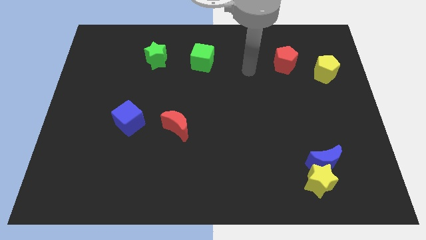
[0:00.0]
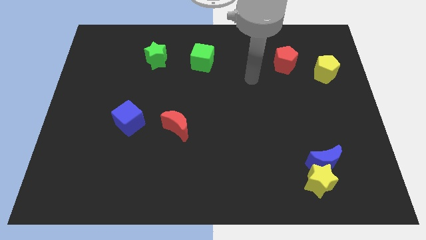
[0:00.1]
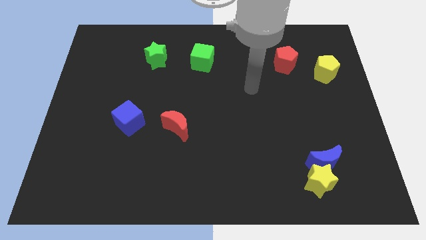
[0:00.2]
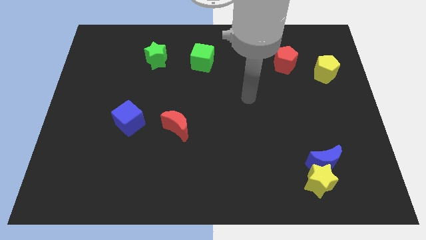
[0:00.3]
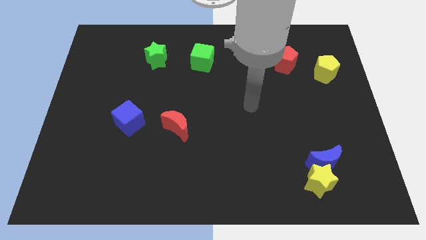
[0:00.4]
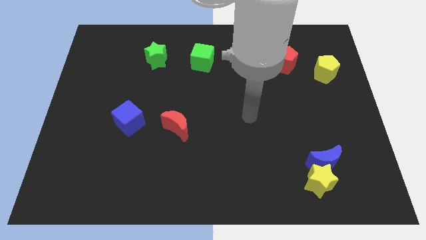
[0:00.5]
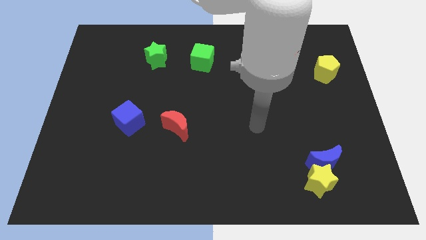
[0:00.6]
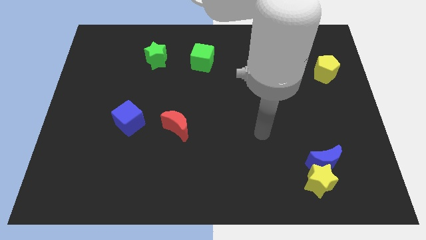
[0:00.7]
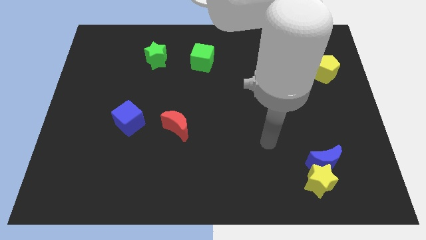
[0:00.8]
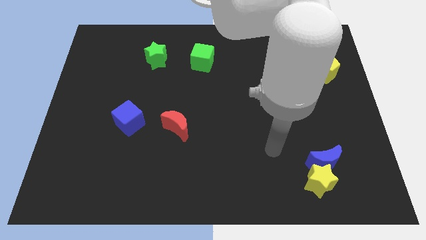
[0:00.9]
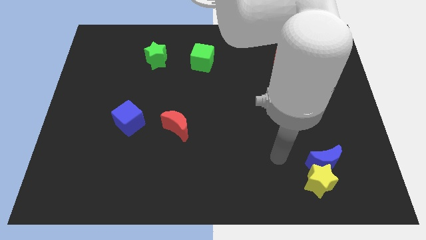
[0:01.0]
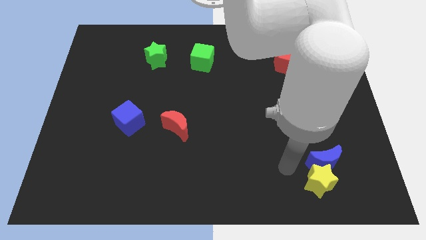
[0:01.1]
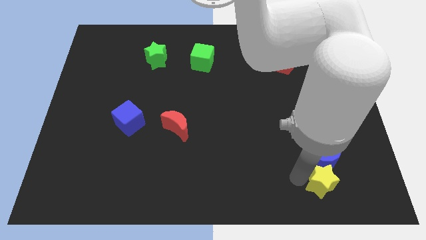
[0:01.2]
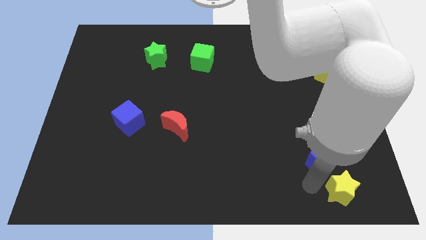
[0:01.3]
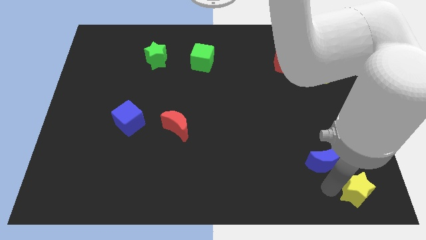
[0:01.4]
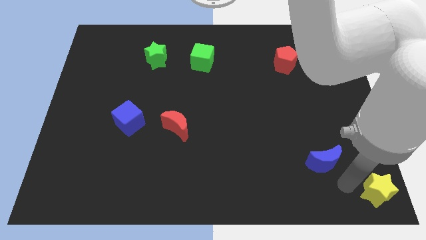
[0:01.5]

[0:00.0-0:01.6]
separate the blue moon from the yellow star

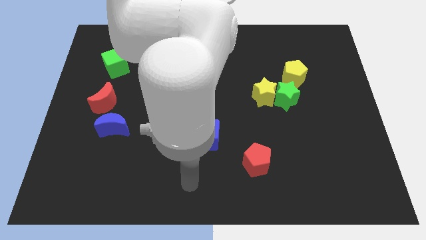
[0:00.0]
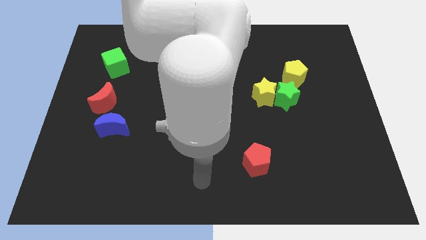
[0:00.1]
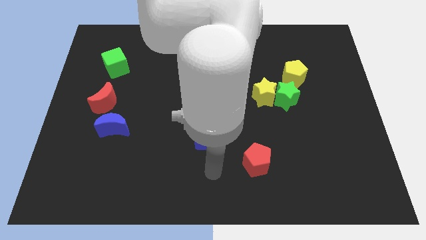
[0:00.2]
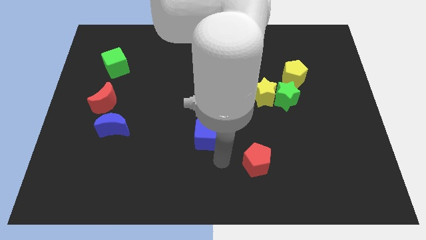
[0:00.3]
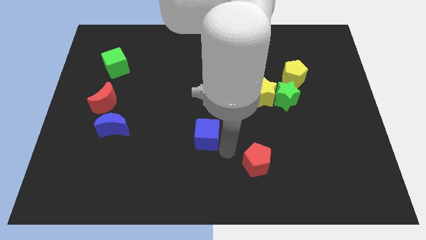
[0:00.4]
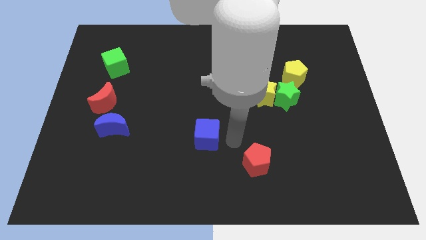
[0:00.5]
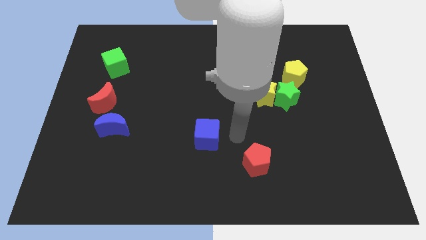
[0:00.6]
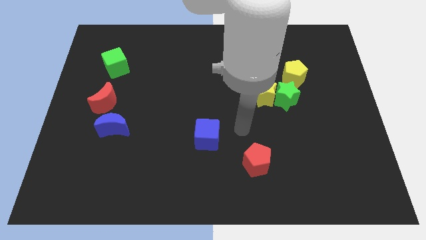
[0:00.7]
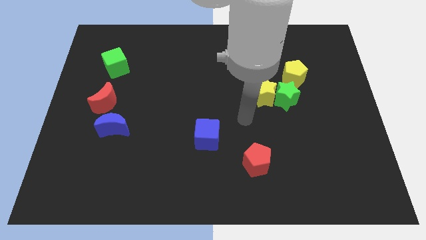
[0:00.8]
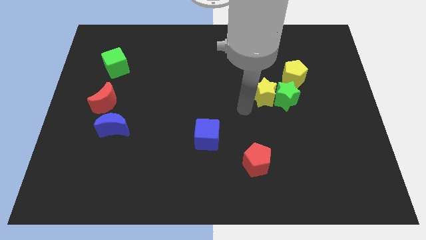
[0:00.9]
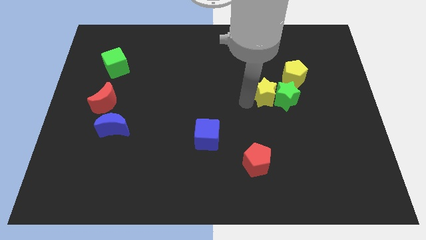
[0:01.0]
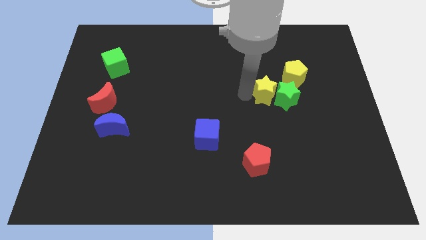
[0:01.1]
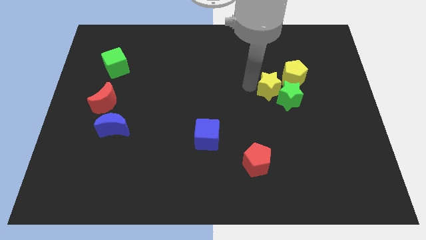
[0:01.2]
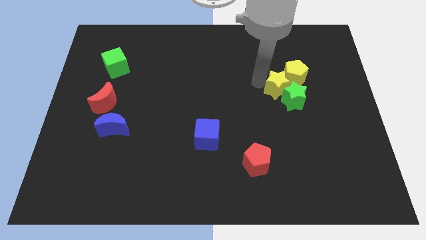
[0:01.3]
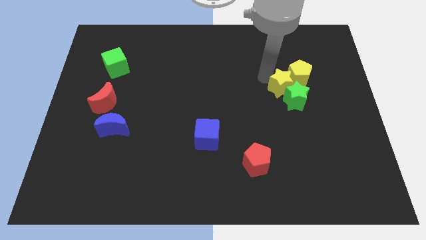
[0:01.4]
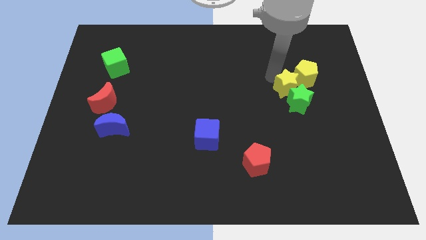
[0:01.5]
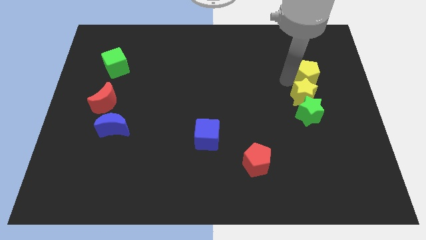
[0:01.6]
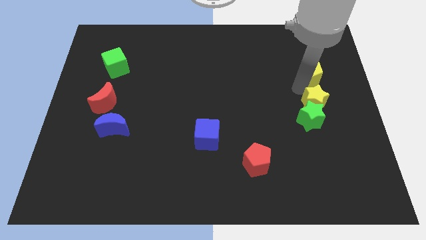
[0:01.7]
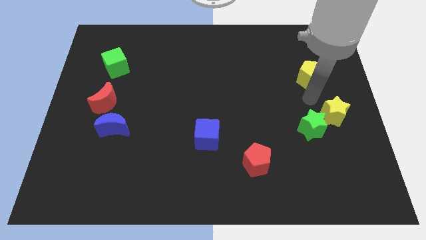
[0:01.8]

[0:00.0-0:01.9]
separate the green star from the yellow star and yellow pentagon

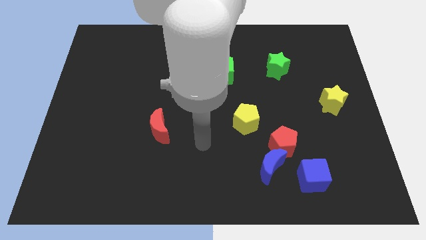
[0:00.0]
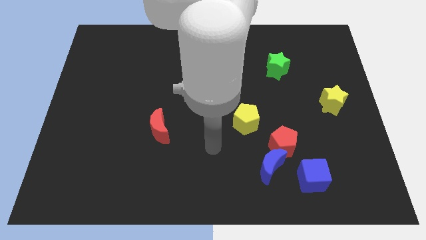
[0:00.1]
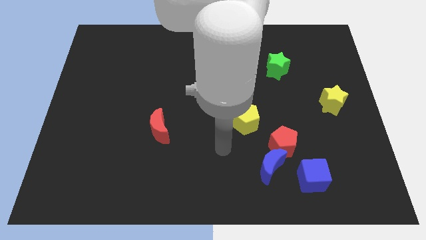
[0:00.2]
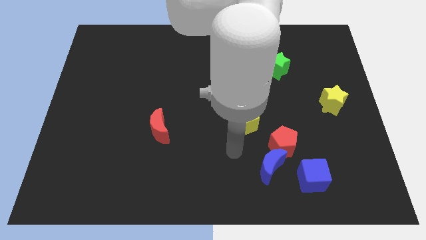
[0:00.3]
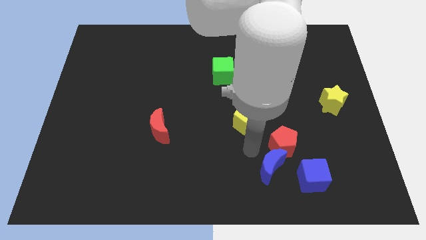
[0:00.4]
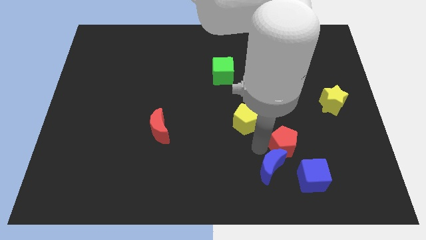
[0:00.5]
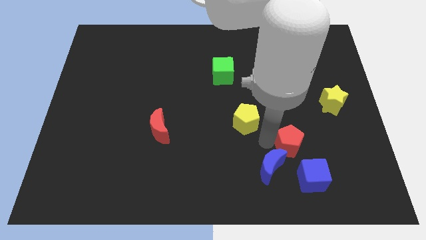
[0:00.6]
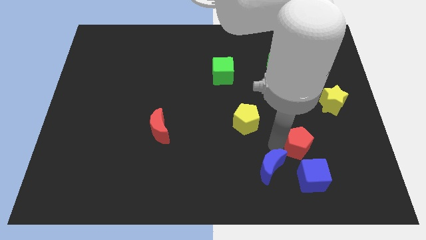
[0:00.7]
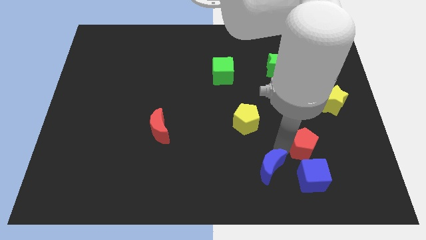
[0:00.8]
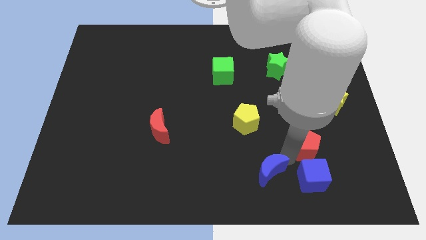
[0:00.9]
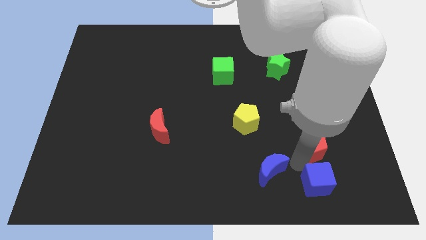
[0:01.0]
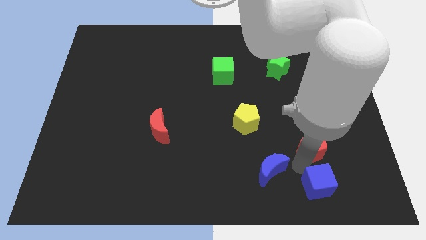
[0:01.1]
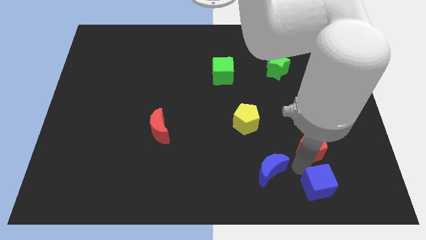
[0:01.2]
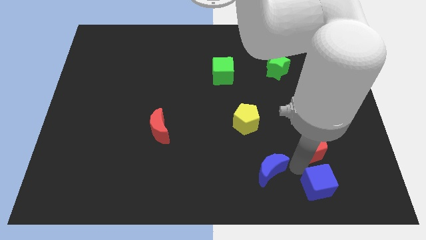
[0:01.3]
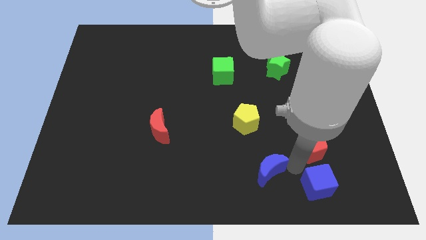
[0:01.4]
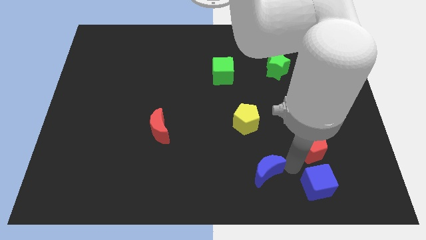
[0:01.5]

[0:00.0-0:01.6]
move the blue moon away from the red pentagon and blue cube

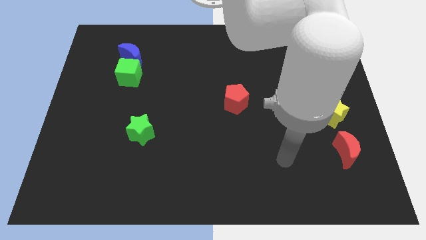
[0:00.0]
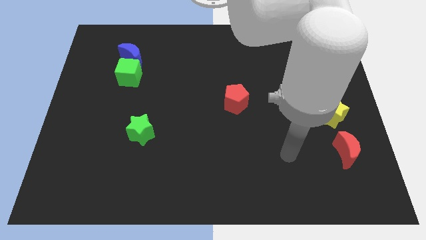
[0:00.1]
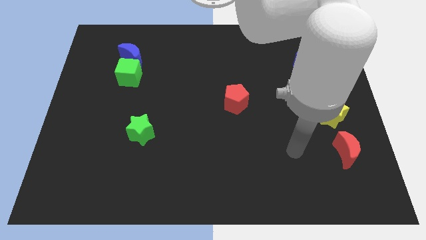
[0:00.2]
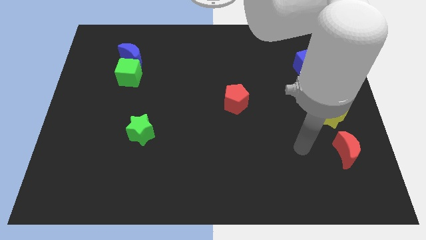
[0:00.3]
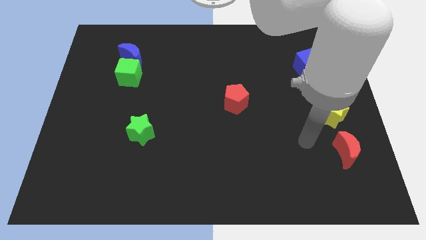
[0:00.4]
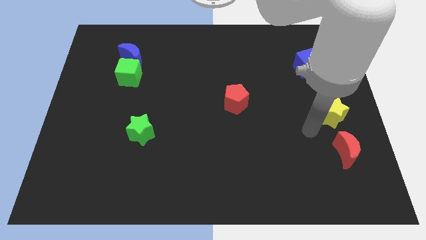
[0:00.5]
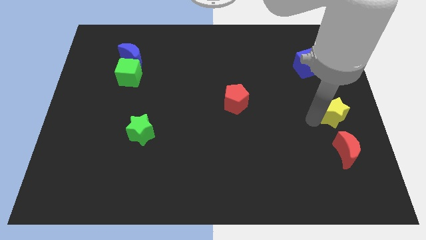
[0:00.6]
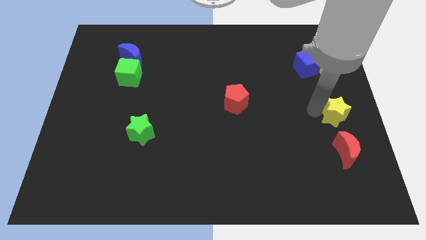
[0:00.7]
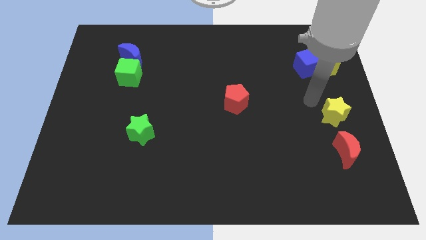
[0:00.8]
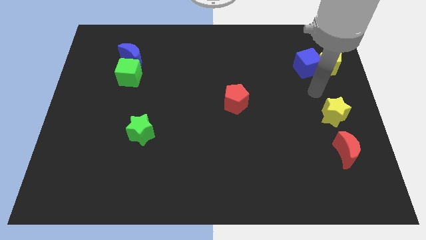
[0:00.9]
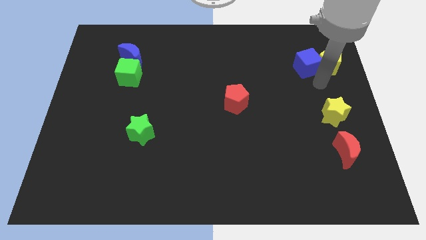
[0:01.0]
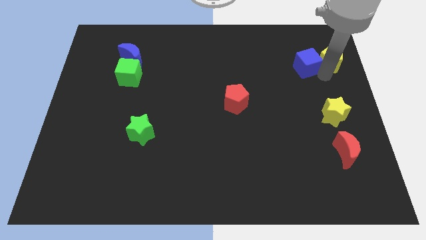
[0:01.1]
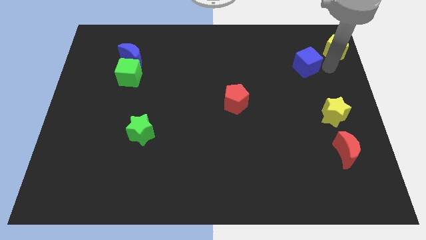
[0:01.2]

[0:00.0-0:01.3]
move the blue cube away from the yellow pentagon

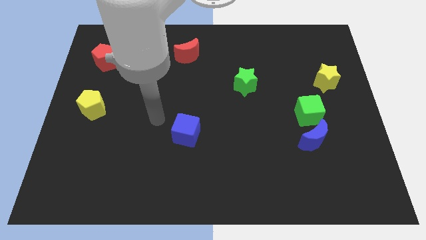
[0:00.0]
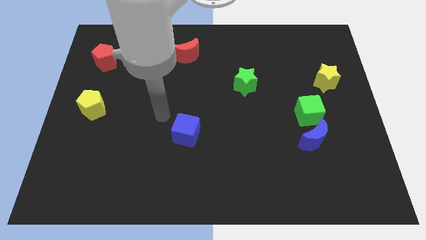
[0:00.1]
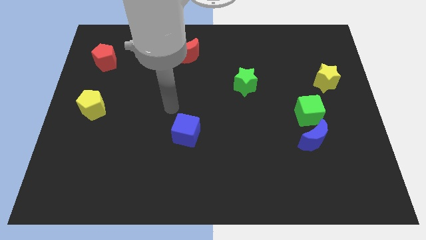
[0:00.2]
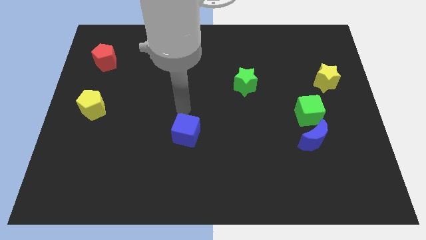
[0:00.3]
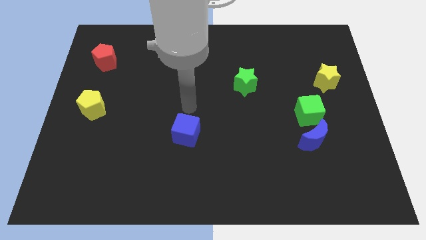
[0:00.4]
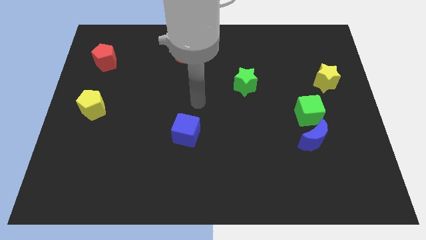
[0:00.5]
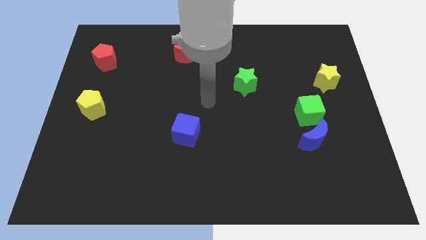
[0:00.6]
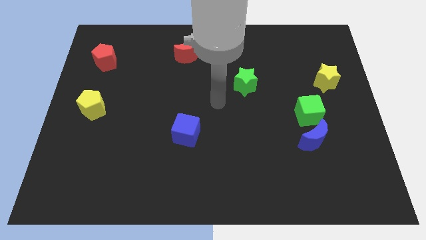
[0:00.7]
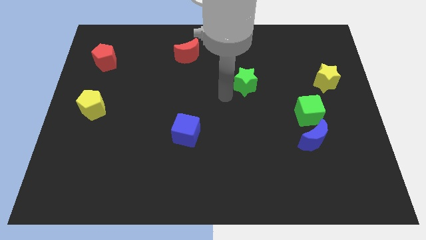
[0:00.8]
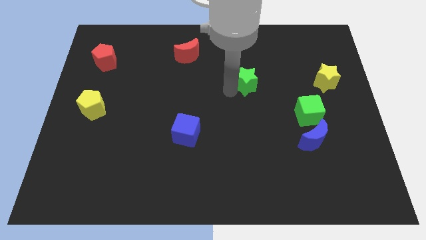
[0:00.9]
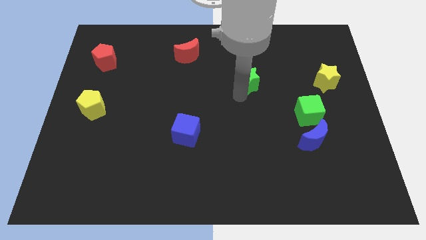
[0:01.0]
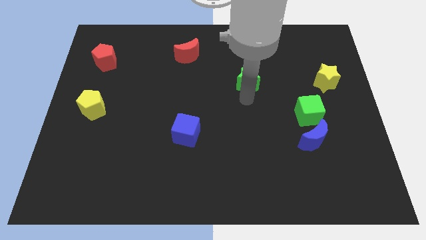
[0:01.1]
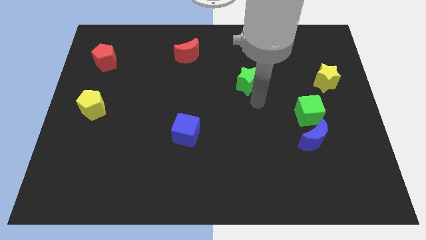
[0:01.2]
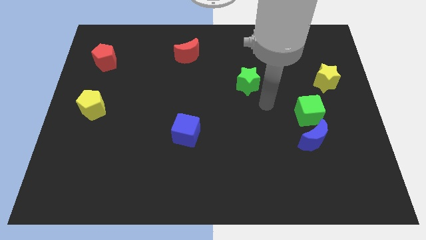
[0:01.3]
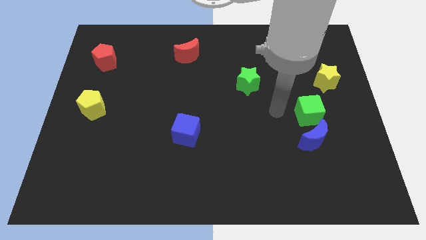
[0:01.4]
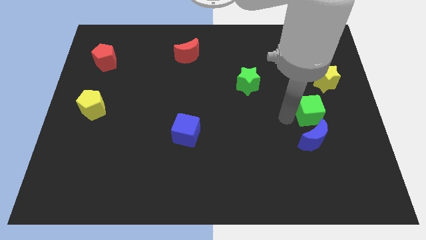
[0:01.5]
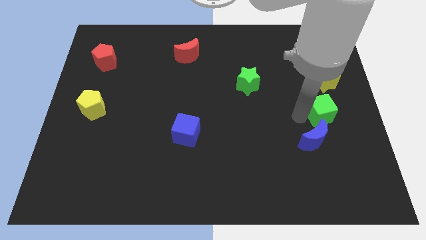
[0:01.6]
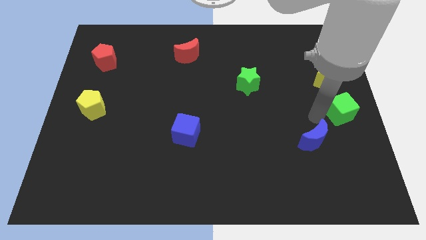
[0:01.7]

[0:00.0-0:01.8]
pull the blue moon apart from the green cube

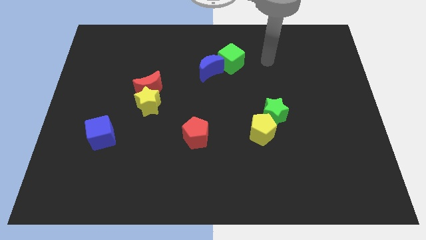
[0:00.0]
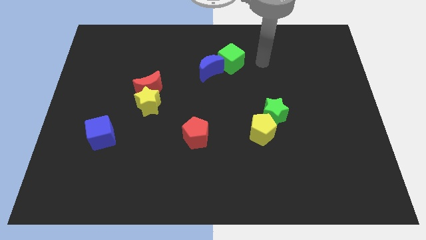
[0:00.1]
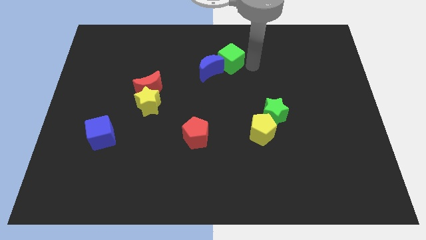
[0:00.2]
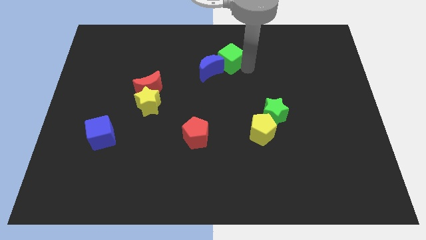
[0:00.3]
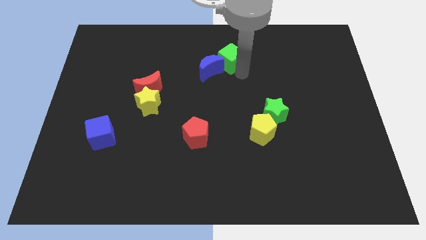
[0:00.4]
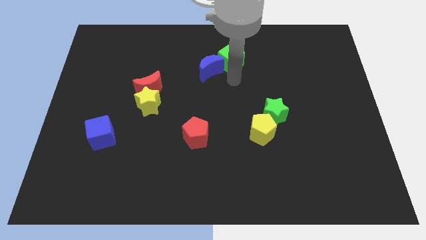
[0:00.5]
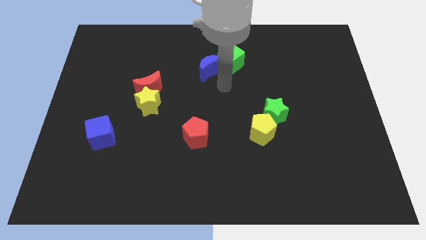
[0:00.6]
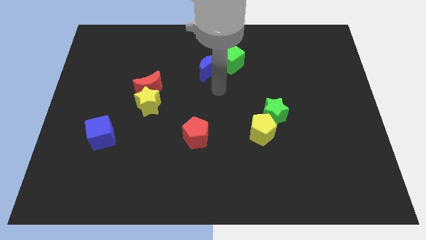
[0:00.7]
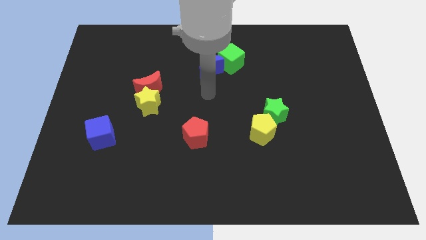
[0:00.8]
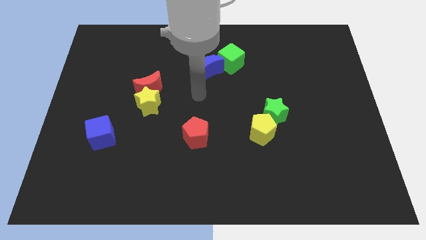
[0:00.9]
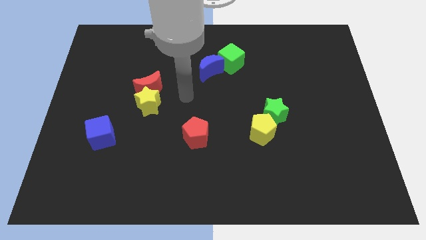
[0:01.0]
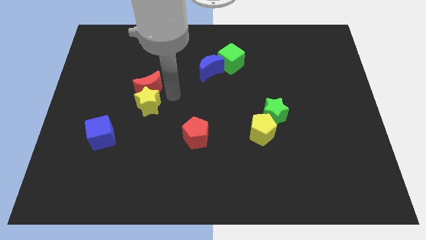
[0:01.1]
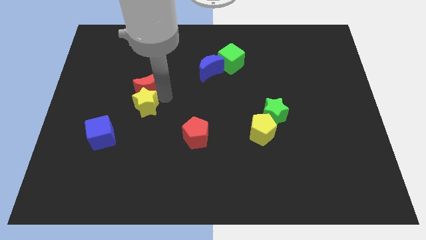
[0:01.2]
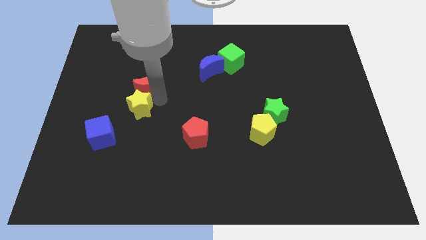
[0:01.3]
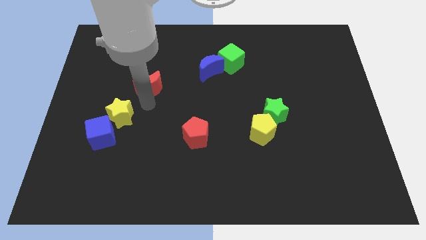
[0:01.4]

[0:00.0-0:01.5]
move the red moon away from the yellow star
